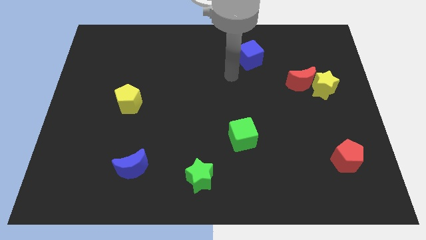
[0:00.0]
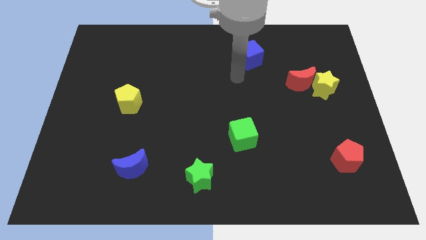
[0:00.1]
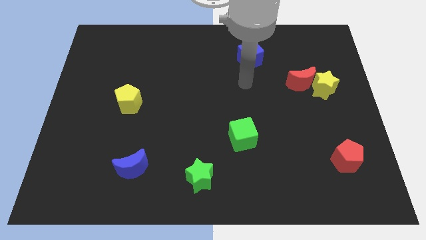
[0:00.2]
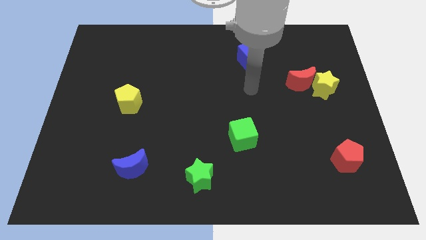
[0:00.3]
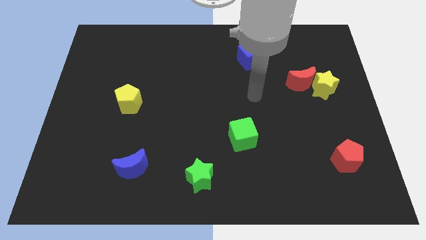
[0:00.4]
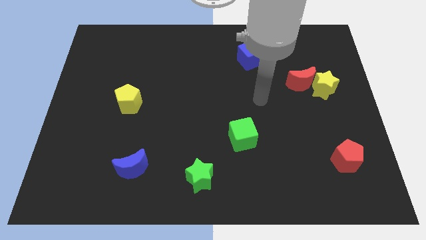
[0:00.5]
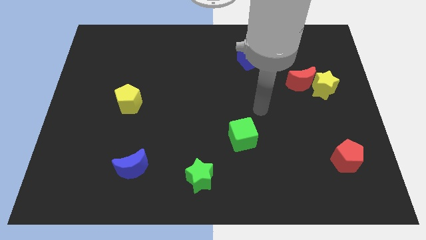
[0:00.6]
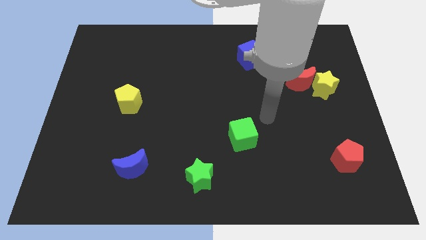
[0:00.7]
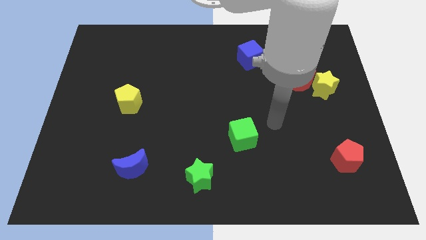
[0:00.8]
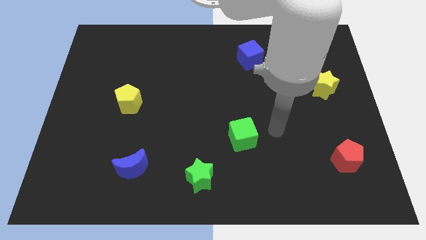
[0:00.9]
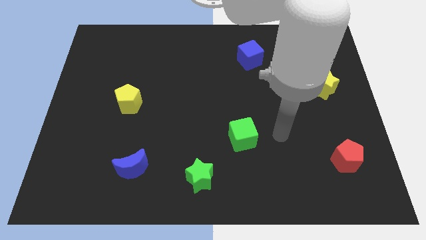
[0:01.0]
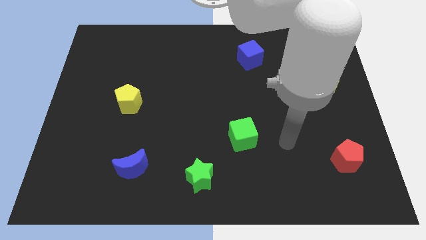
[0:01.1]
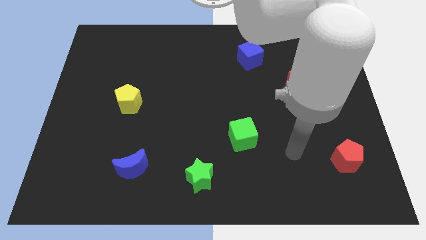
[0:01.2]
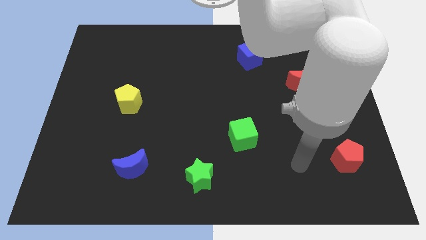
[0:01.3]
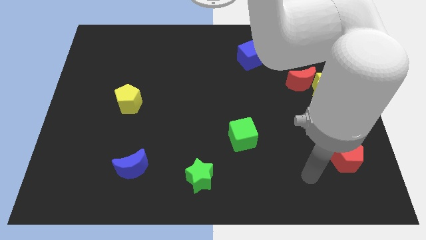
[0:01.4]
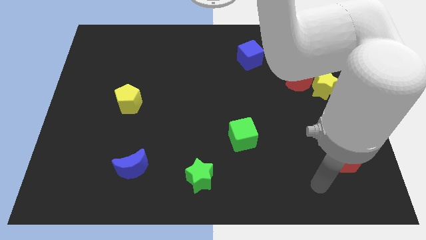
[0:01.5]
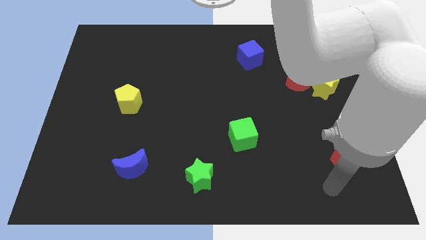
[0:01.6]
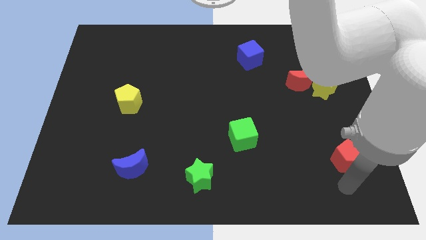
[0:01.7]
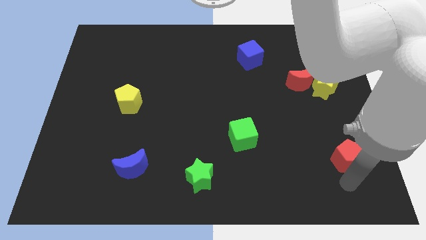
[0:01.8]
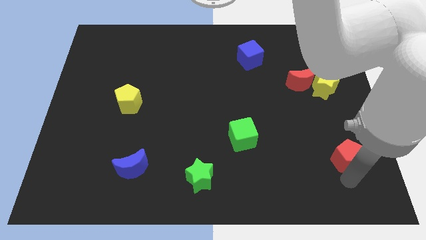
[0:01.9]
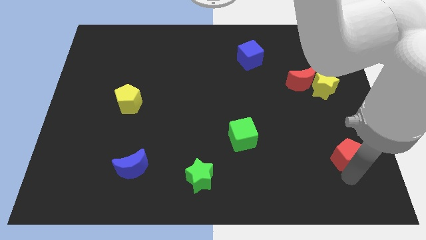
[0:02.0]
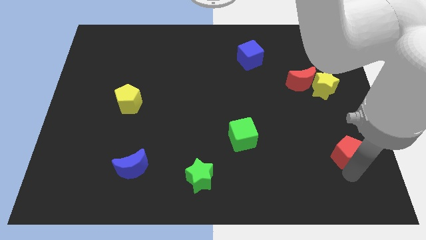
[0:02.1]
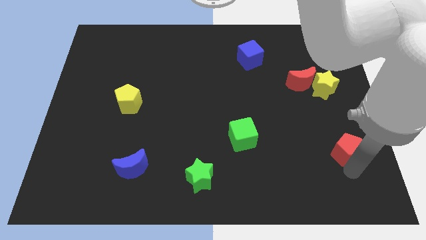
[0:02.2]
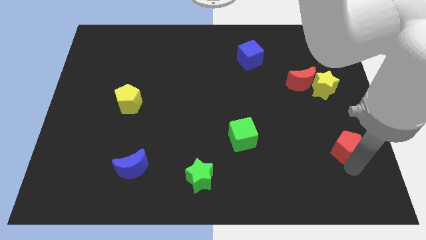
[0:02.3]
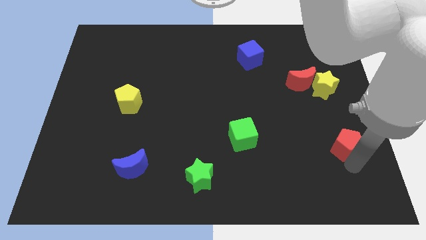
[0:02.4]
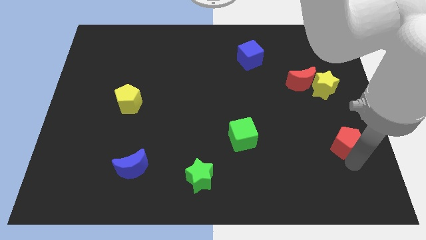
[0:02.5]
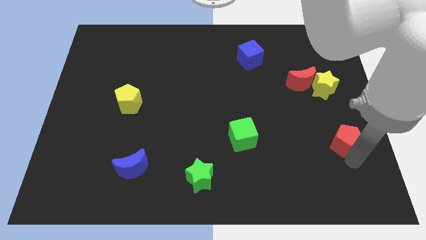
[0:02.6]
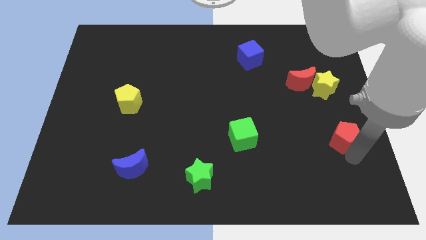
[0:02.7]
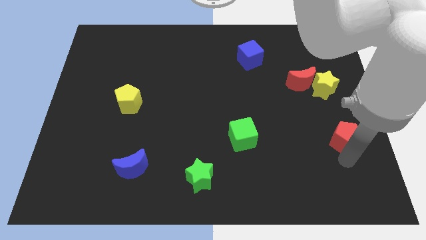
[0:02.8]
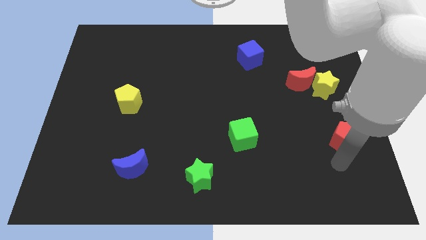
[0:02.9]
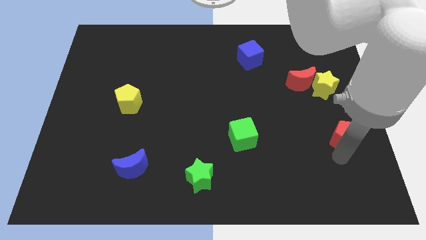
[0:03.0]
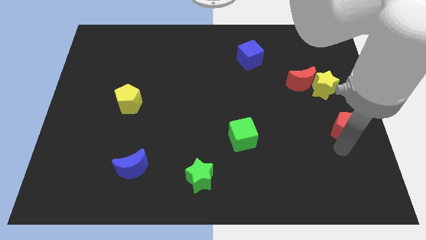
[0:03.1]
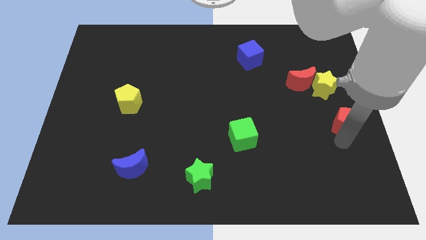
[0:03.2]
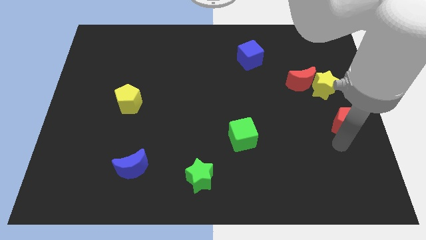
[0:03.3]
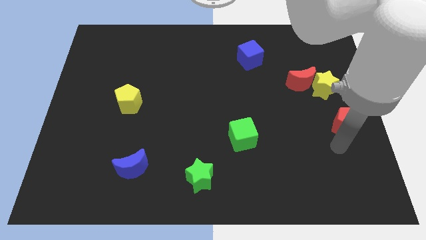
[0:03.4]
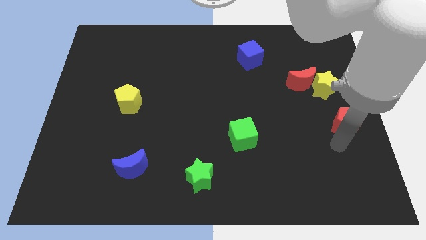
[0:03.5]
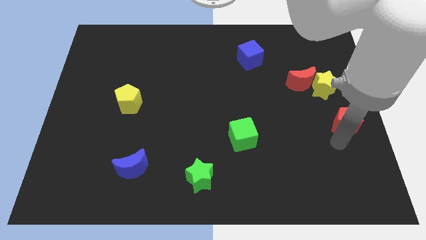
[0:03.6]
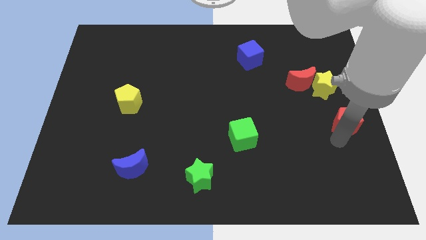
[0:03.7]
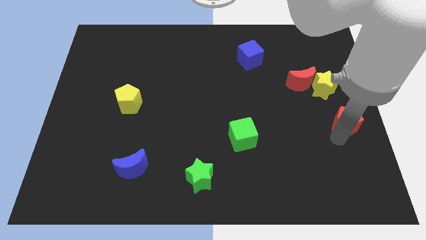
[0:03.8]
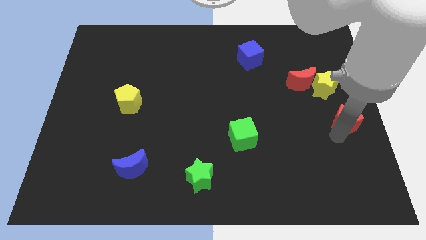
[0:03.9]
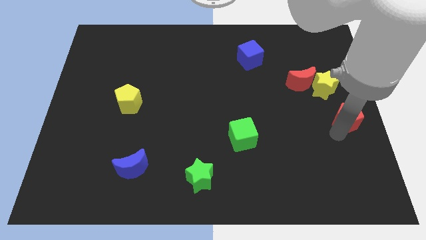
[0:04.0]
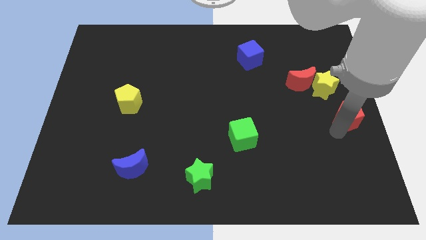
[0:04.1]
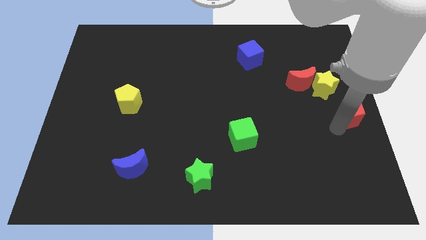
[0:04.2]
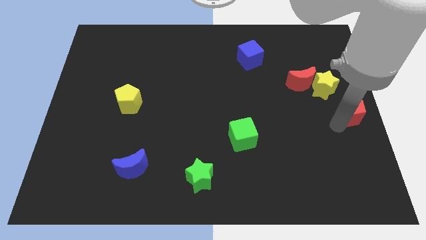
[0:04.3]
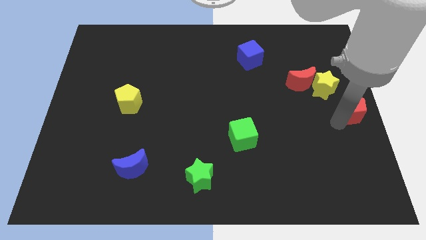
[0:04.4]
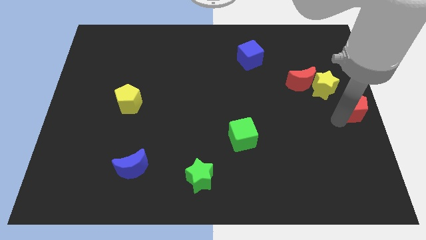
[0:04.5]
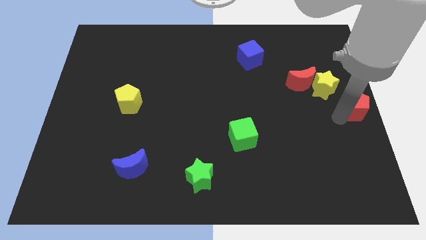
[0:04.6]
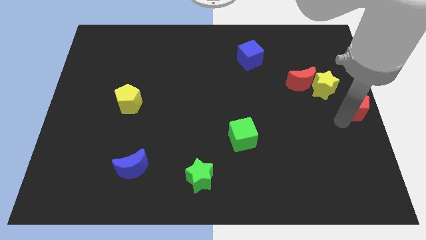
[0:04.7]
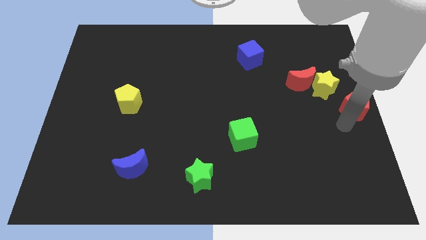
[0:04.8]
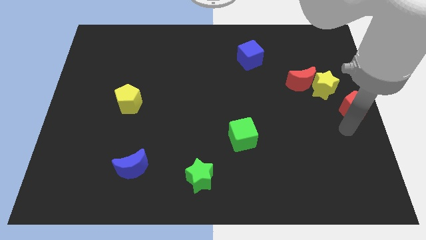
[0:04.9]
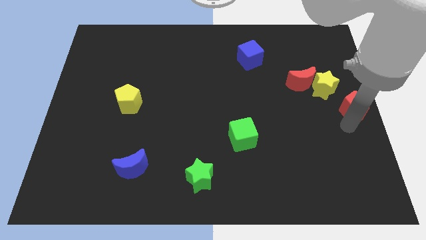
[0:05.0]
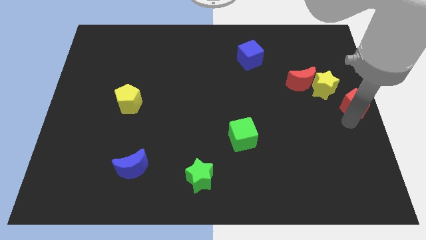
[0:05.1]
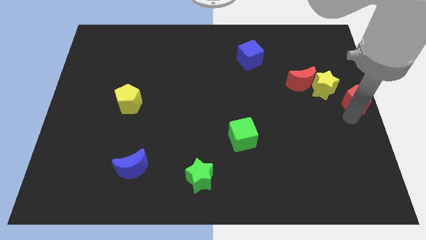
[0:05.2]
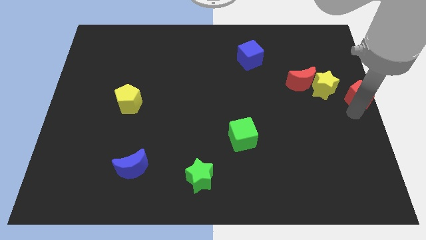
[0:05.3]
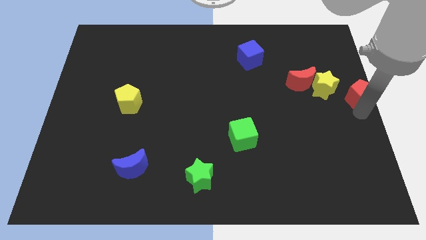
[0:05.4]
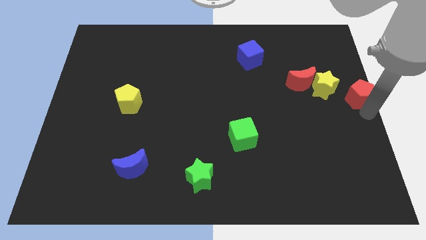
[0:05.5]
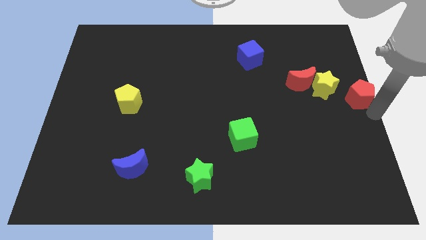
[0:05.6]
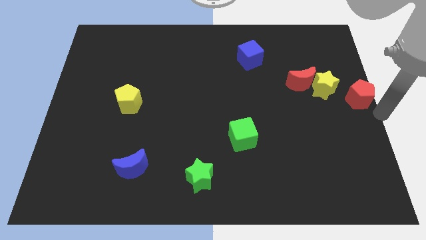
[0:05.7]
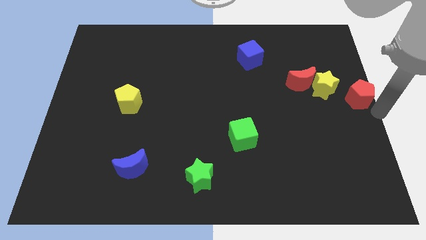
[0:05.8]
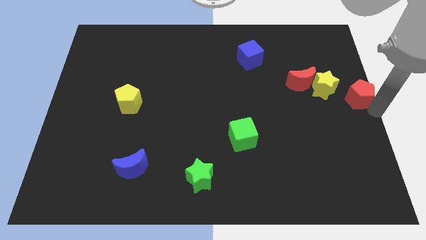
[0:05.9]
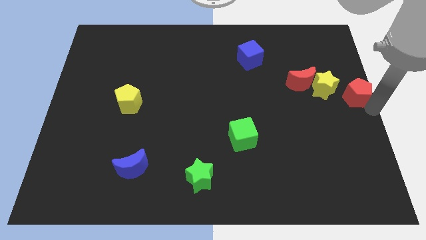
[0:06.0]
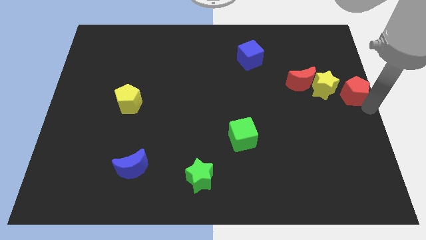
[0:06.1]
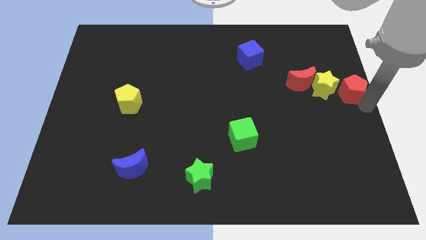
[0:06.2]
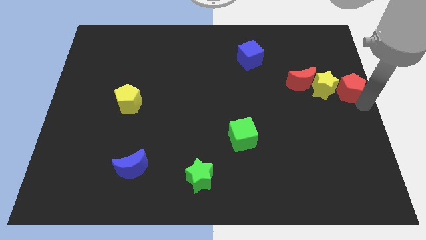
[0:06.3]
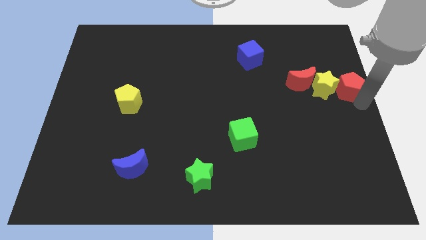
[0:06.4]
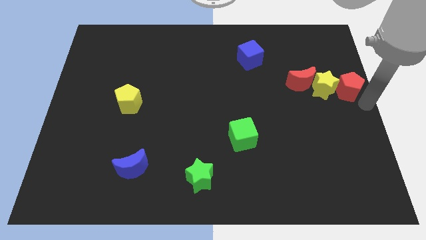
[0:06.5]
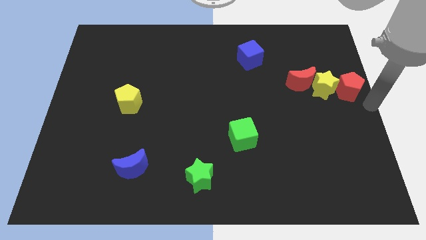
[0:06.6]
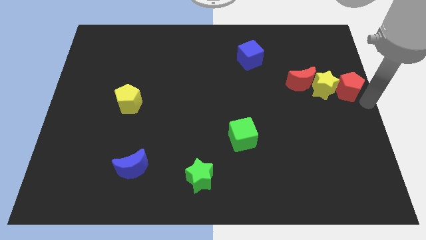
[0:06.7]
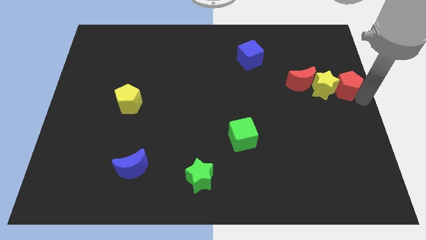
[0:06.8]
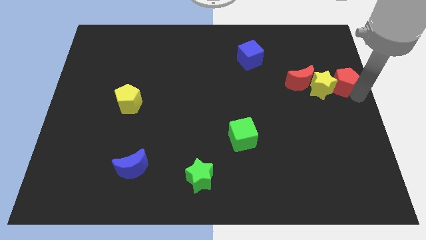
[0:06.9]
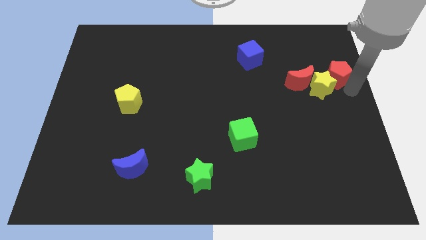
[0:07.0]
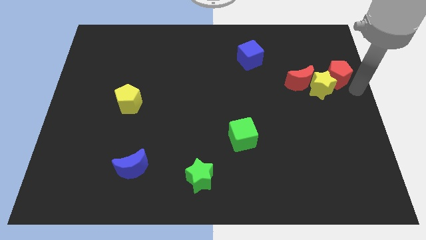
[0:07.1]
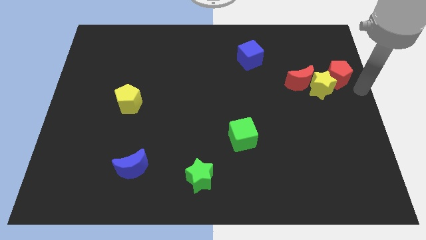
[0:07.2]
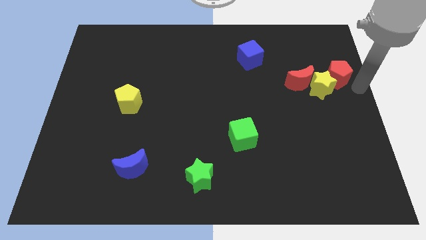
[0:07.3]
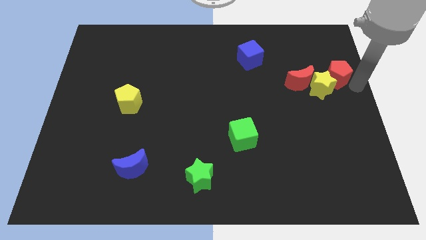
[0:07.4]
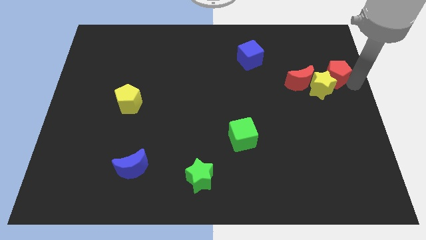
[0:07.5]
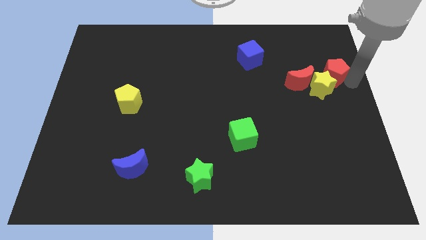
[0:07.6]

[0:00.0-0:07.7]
move the red pentagon to the top right of the red moon
